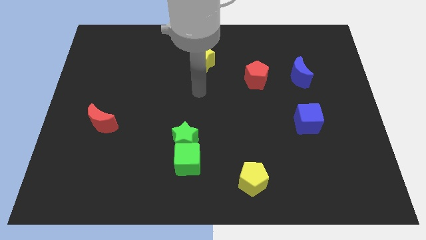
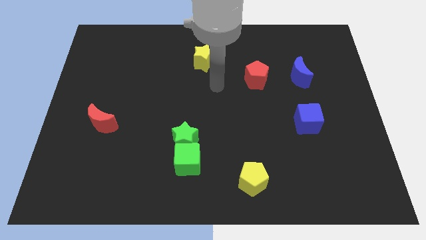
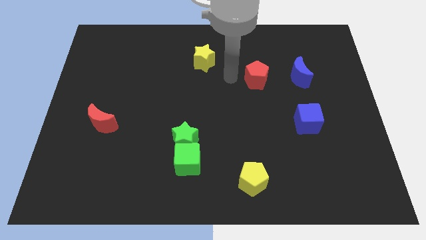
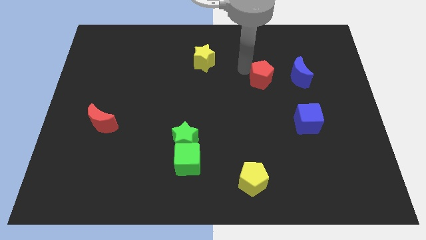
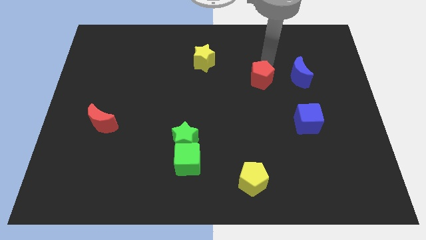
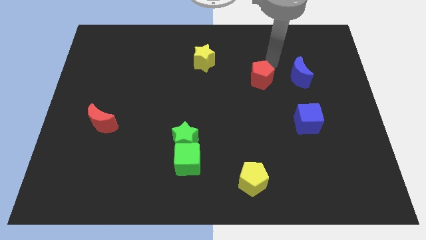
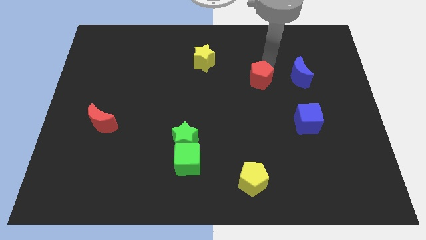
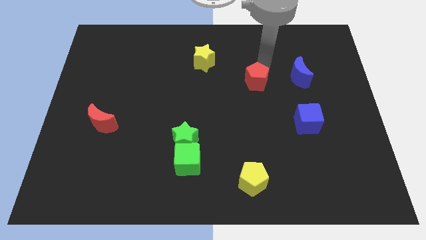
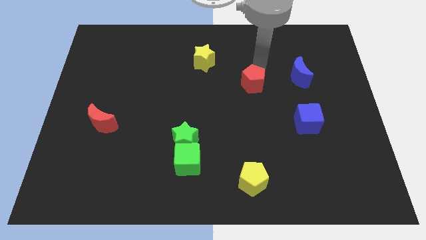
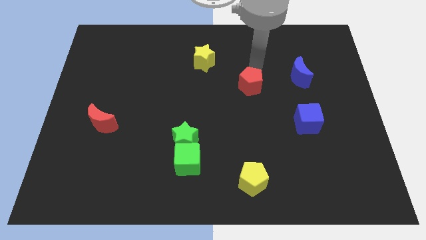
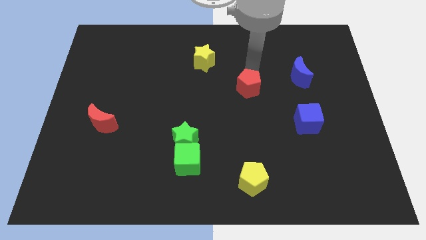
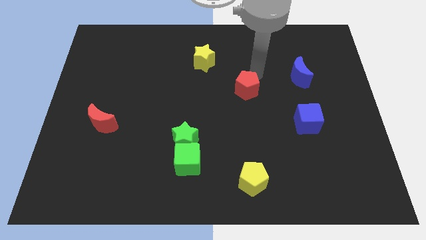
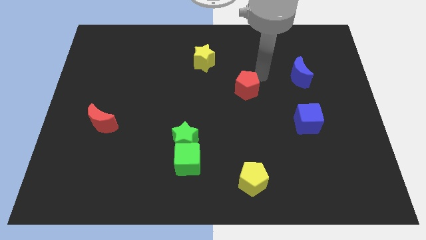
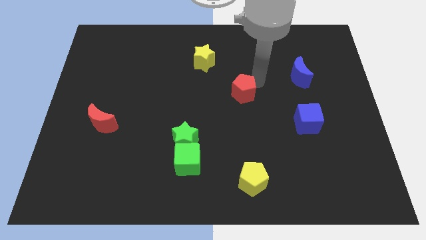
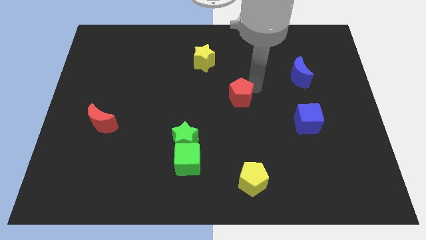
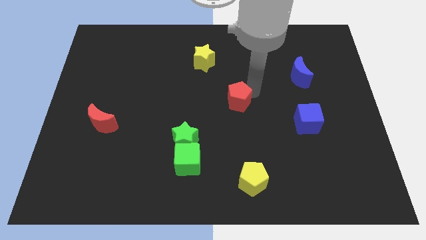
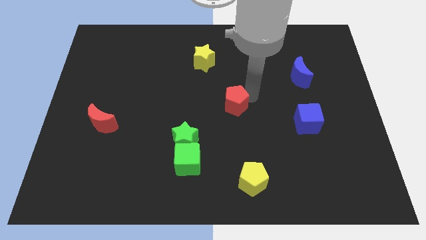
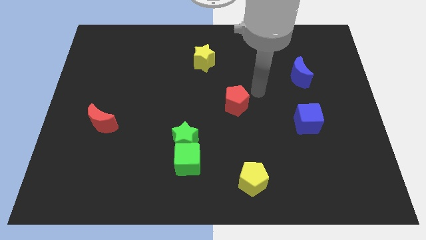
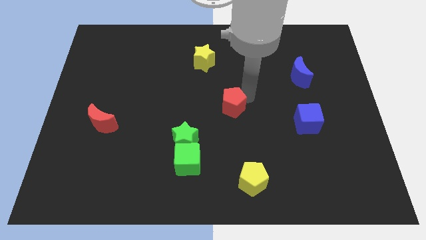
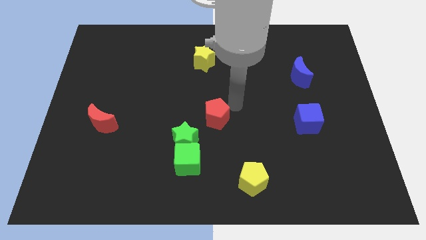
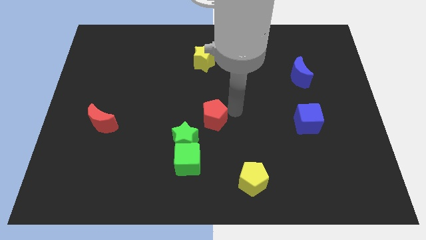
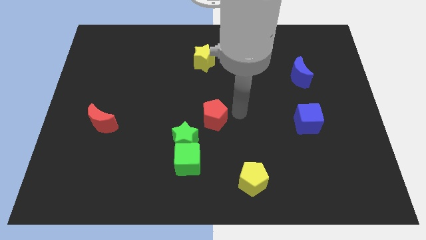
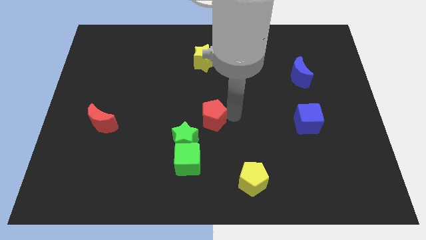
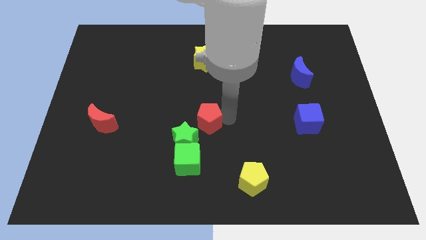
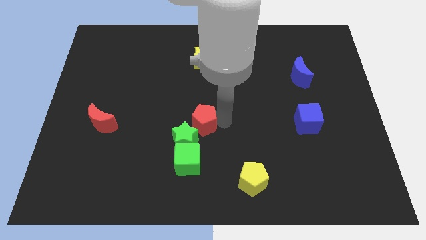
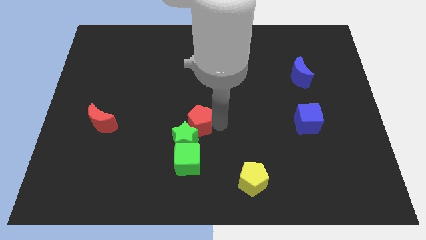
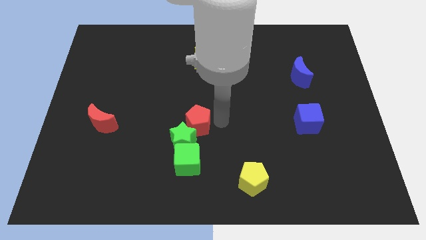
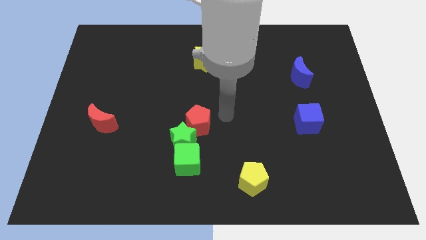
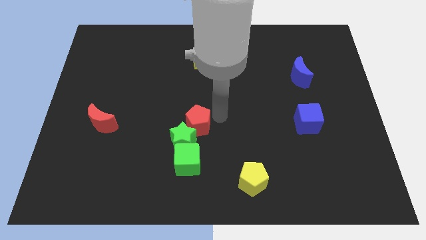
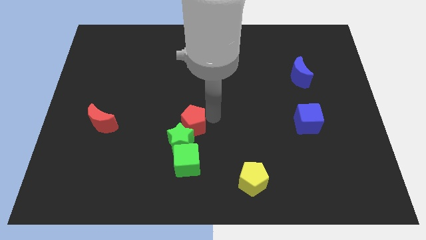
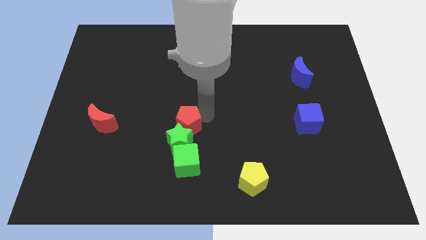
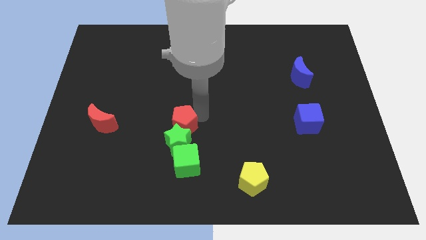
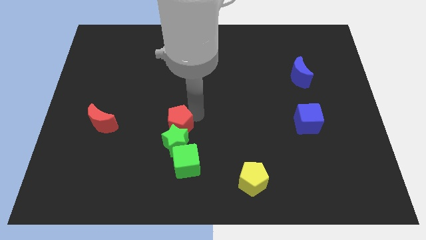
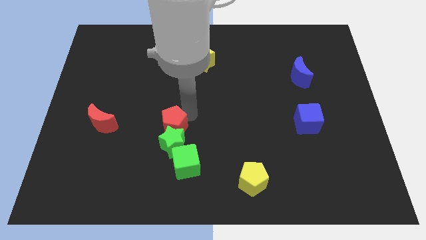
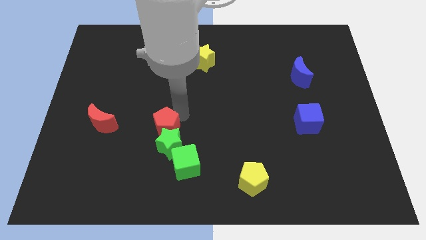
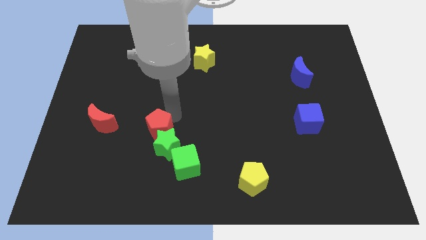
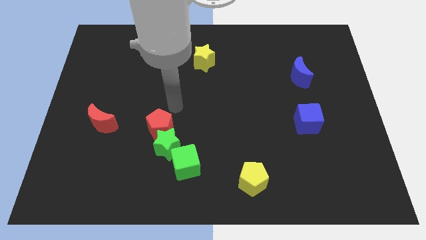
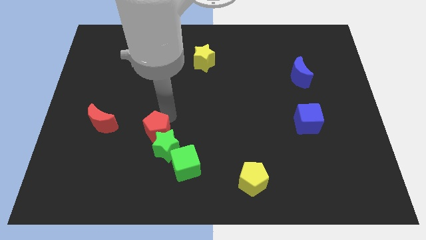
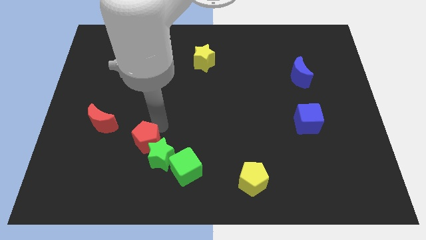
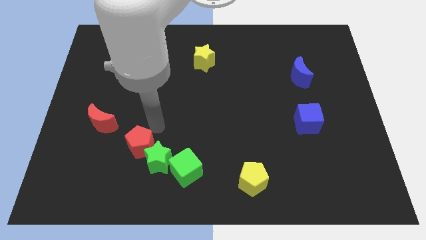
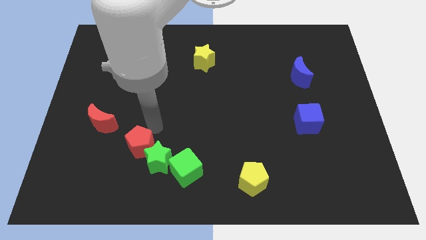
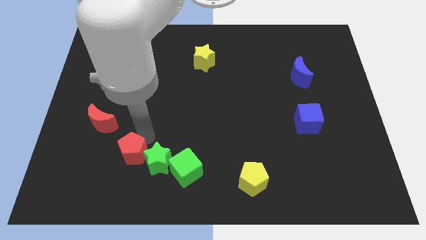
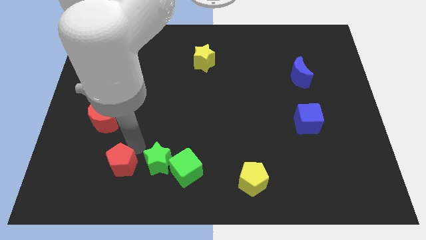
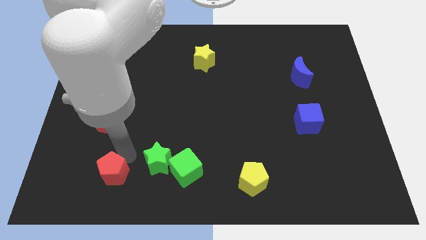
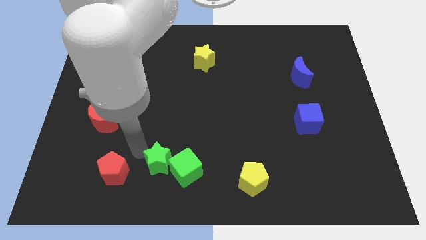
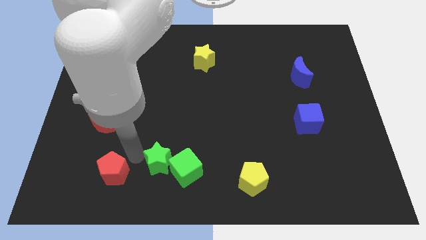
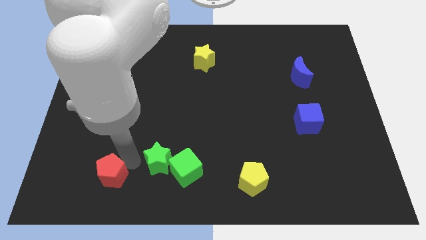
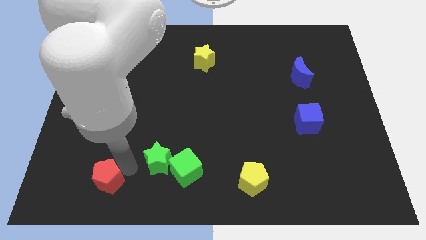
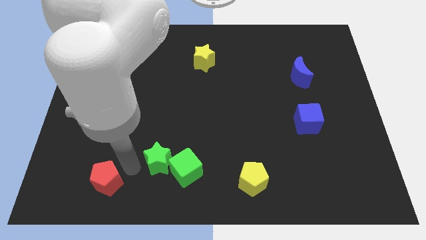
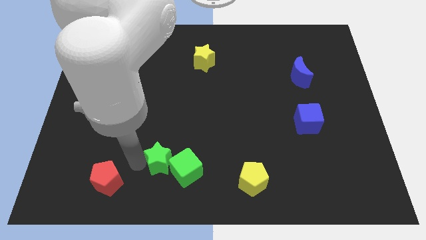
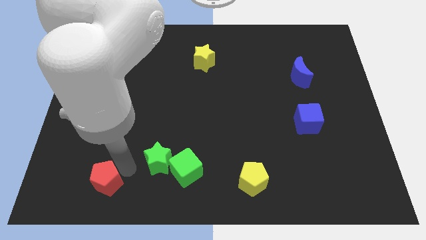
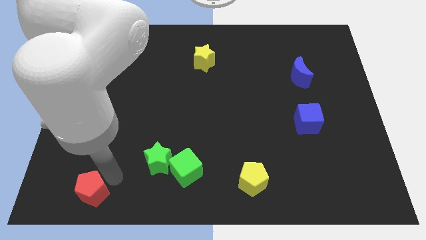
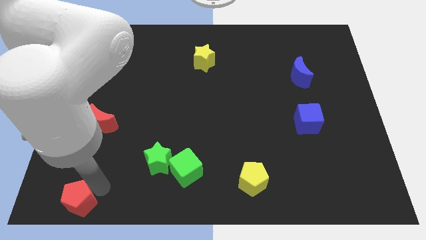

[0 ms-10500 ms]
move the red pentagon to the bottom left corner

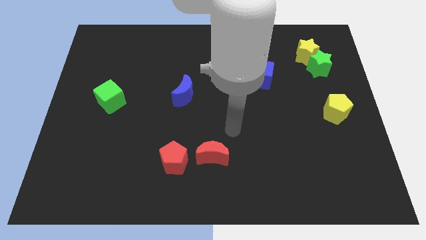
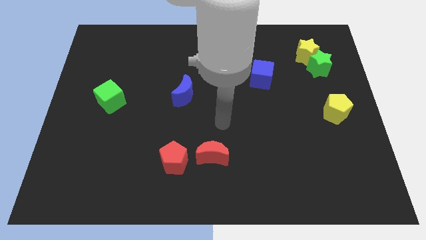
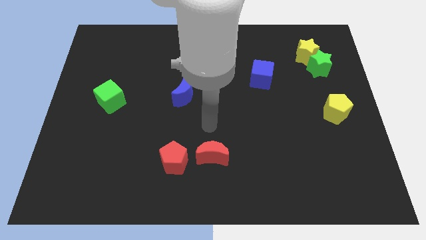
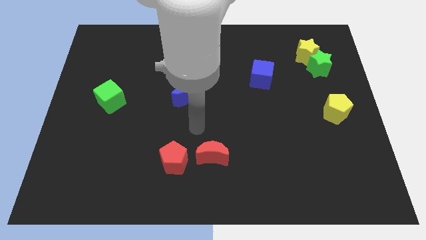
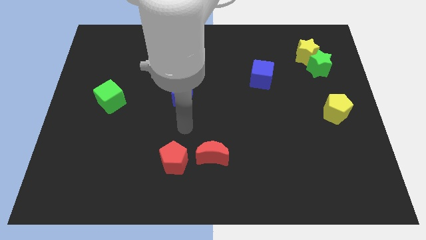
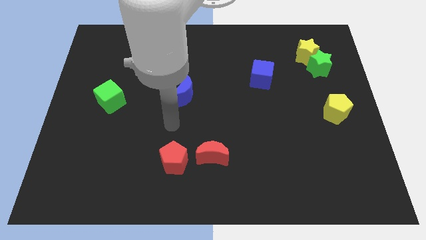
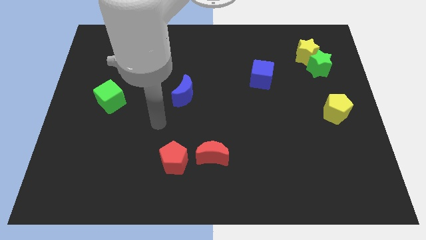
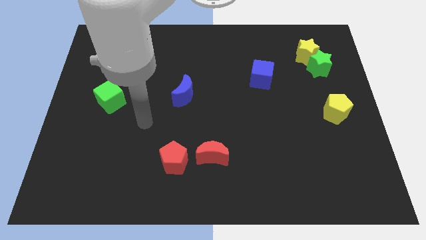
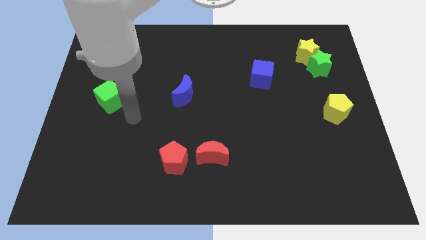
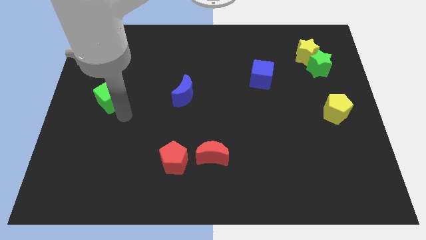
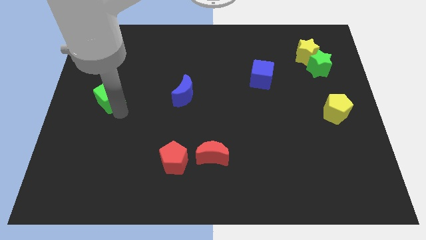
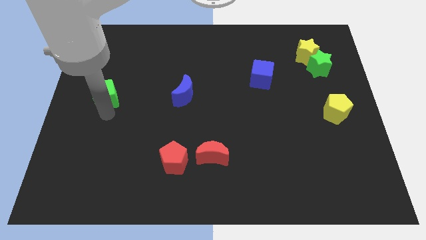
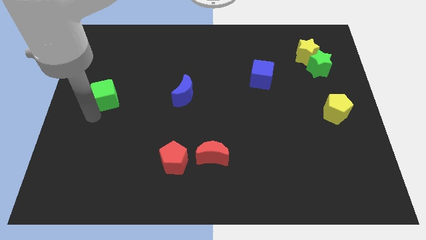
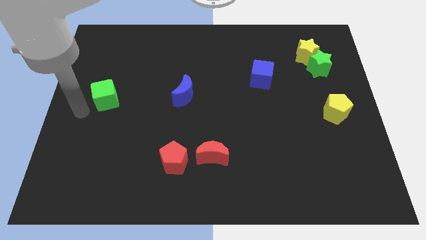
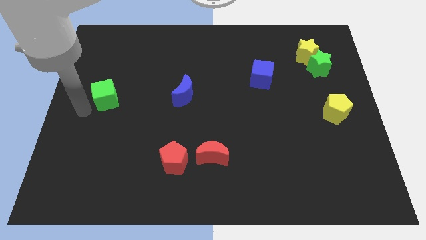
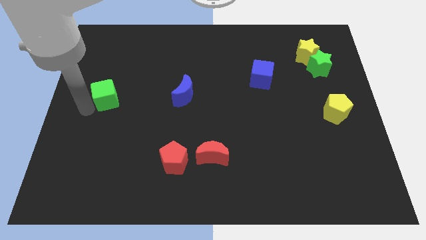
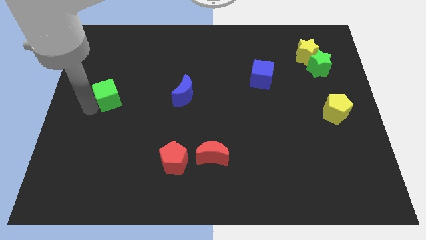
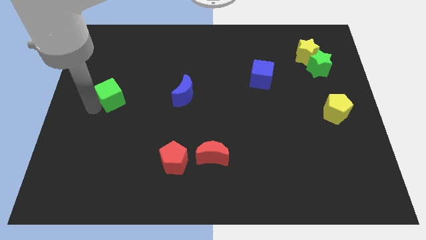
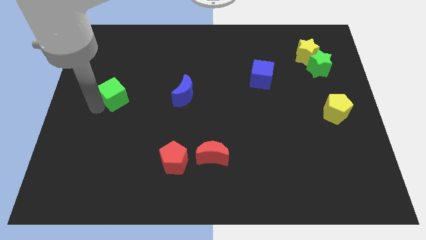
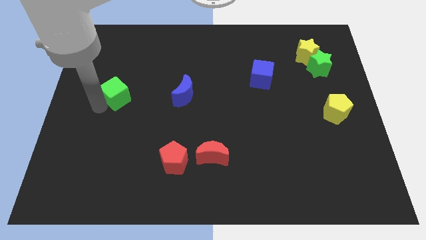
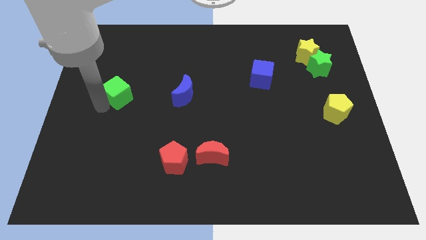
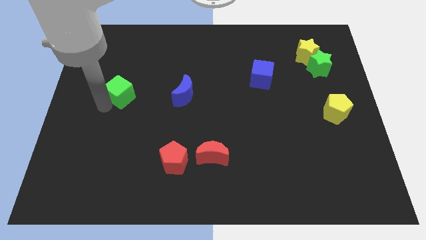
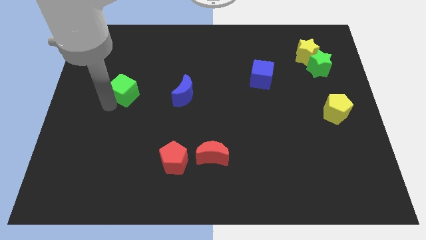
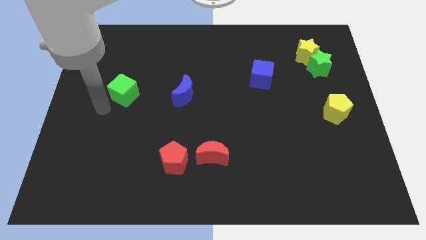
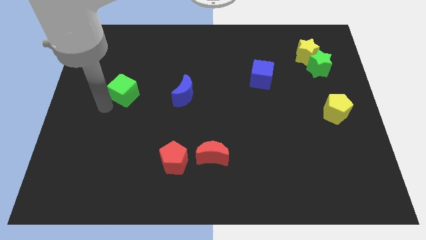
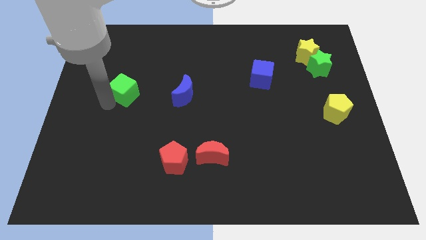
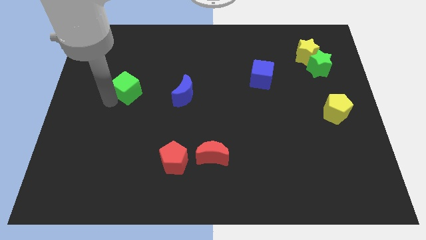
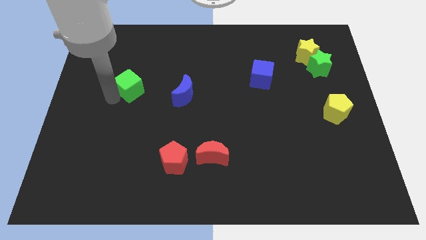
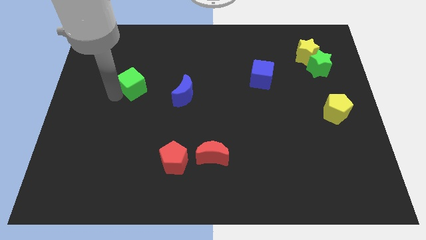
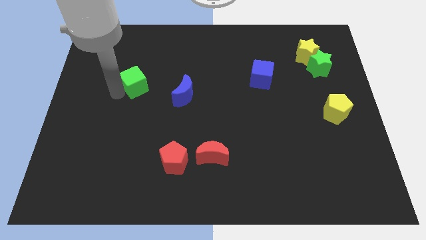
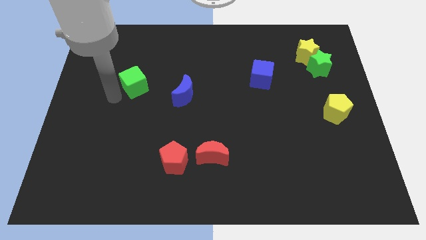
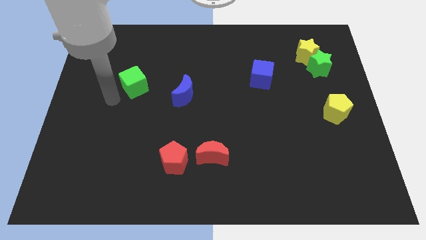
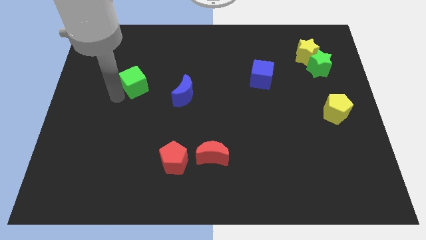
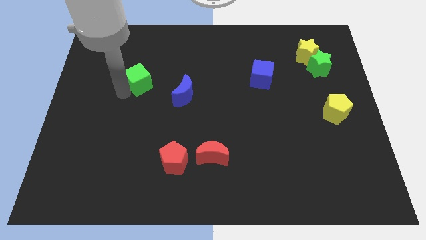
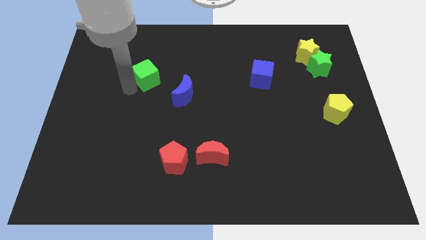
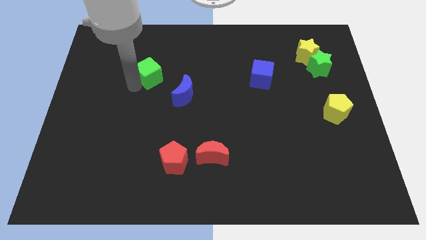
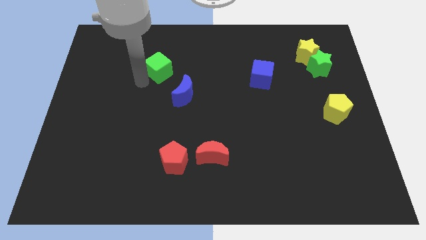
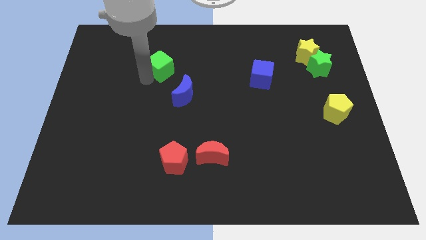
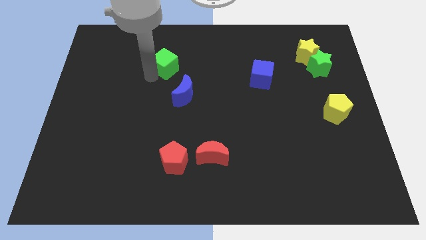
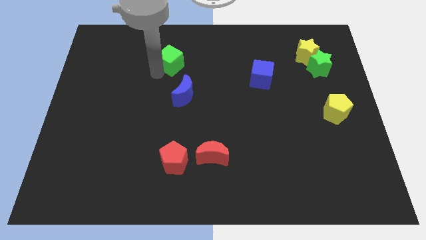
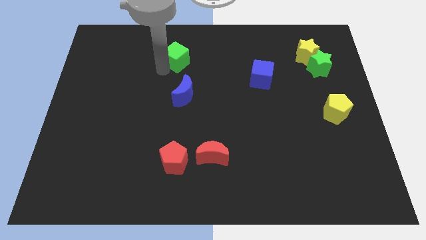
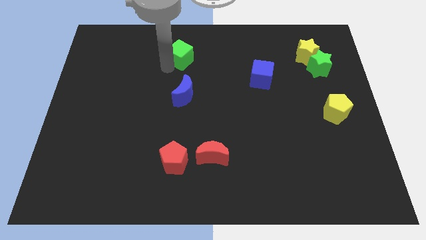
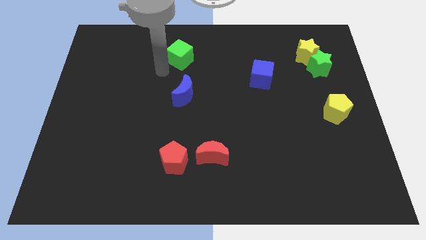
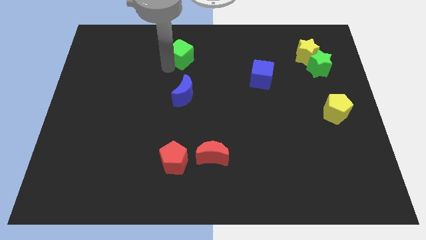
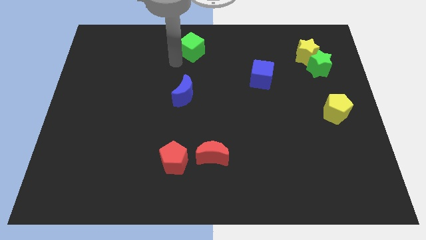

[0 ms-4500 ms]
slide the green cube to the towards your base
